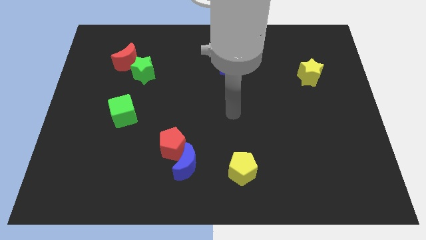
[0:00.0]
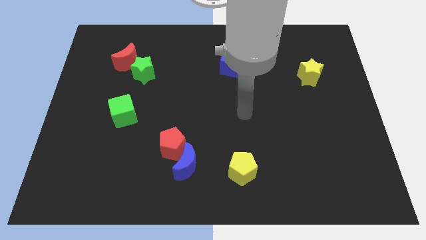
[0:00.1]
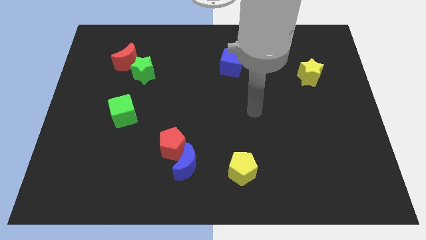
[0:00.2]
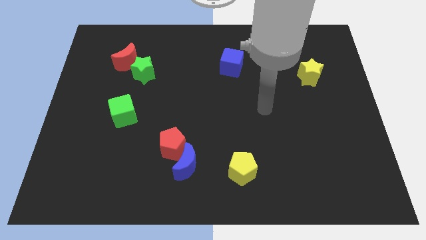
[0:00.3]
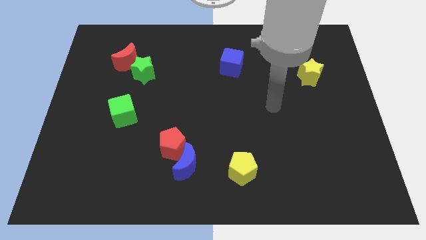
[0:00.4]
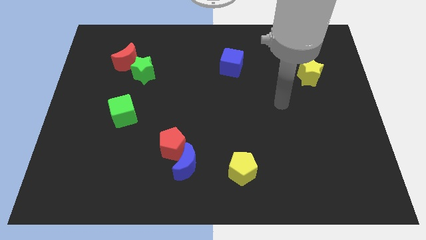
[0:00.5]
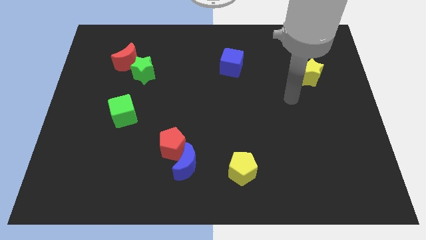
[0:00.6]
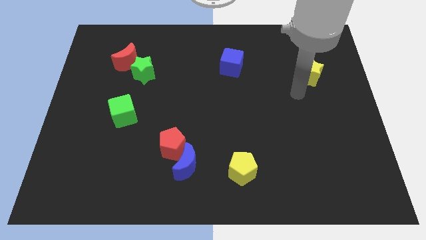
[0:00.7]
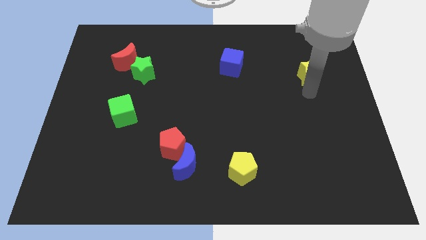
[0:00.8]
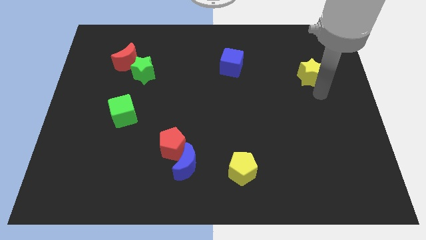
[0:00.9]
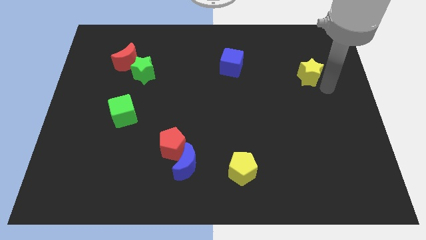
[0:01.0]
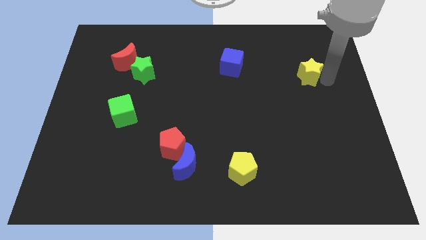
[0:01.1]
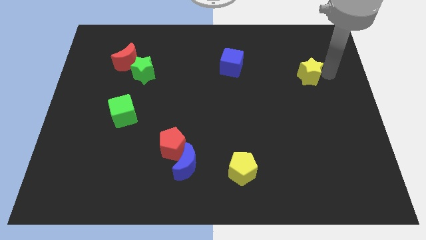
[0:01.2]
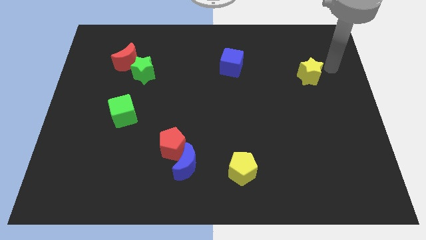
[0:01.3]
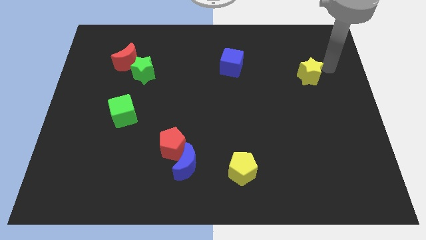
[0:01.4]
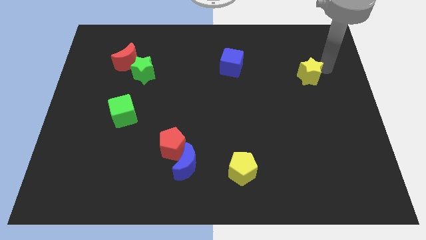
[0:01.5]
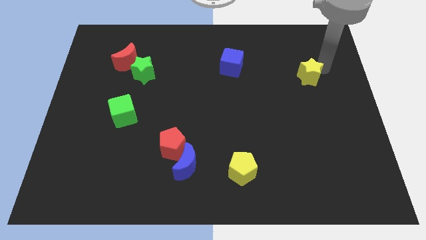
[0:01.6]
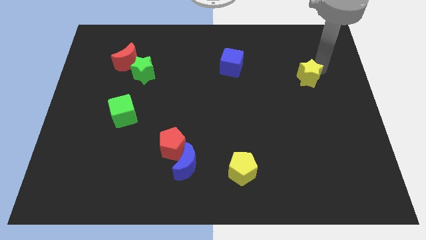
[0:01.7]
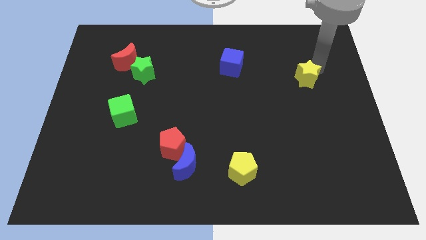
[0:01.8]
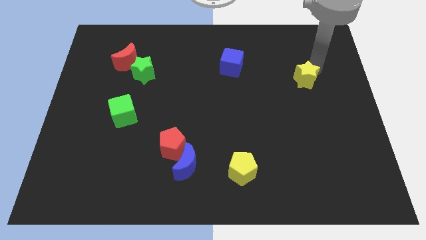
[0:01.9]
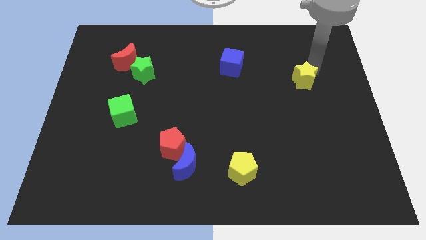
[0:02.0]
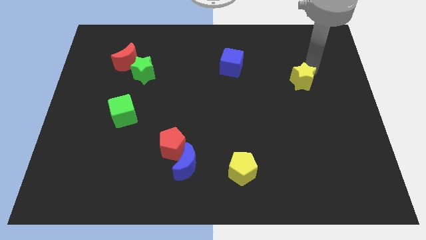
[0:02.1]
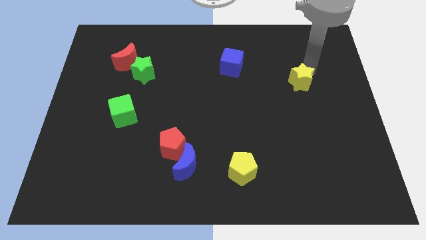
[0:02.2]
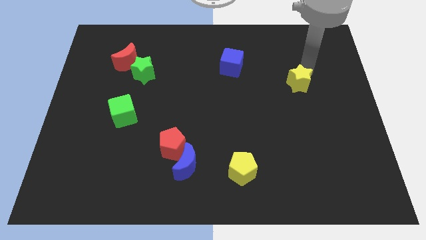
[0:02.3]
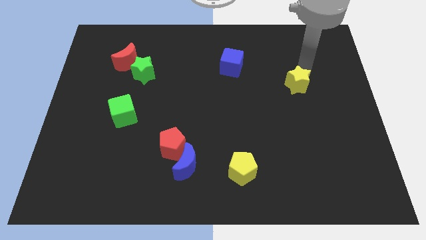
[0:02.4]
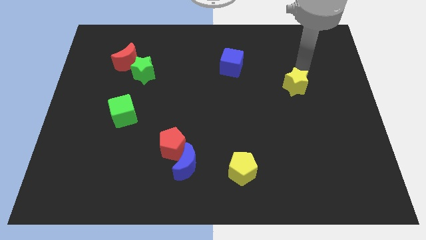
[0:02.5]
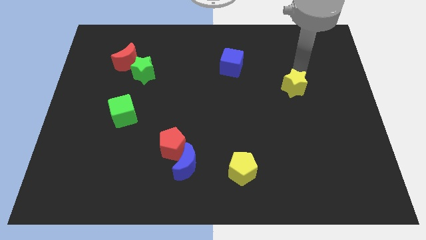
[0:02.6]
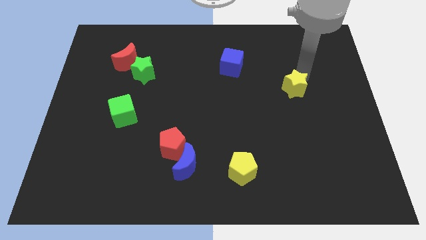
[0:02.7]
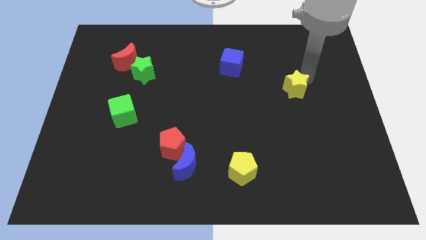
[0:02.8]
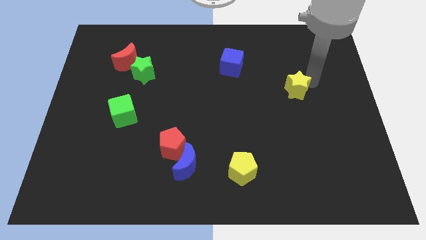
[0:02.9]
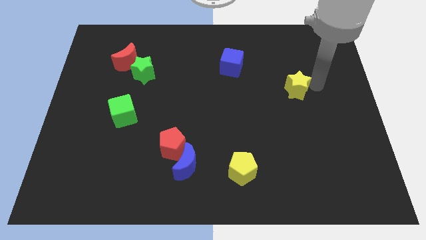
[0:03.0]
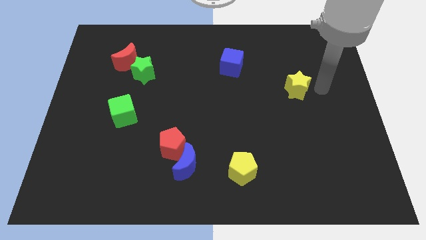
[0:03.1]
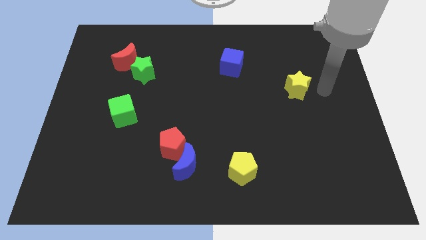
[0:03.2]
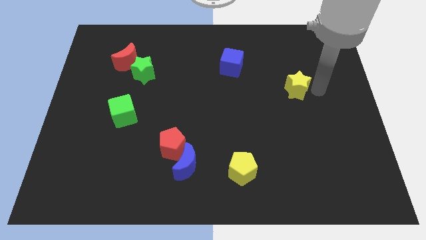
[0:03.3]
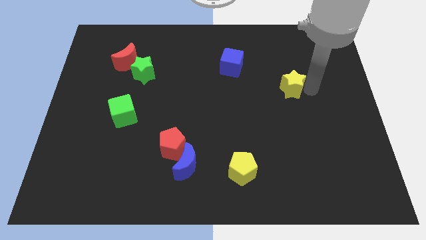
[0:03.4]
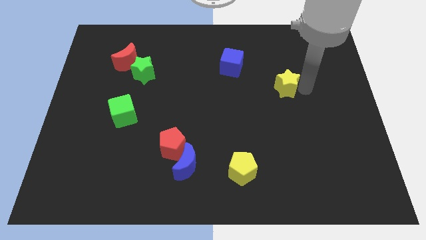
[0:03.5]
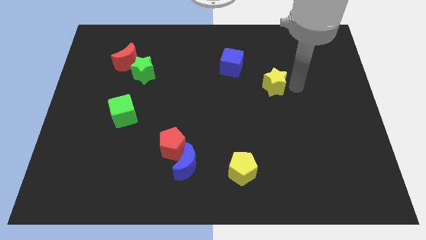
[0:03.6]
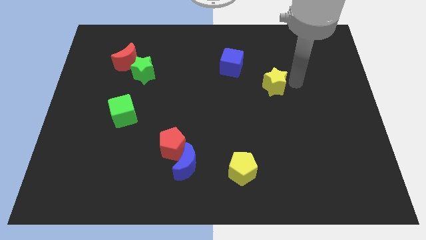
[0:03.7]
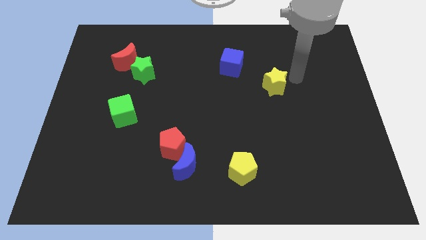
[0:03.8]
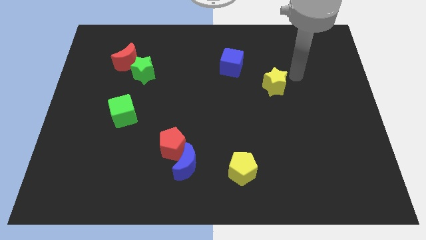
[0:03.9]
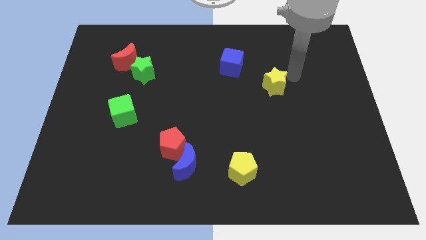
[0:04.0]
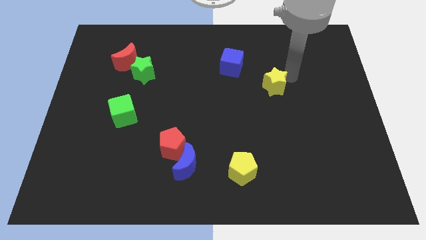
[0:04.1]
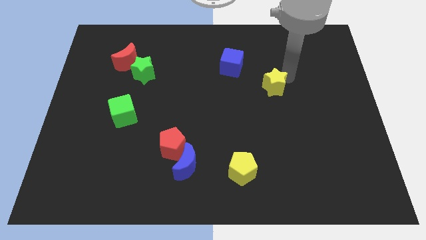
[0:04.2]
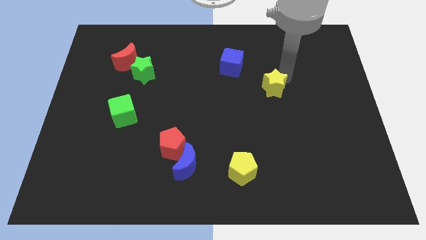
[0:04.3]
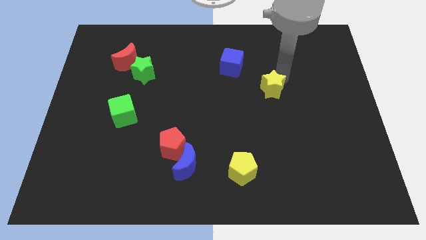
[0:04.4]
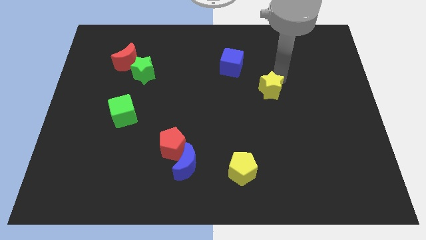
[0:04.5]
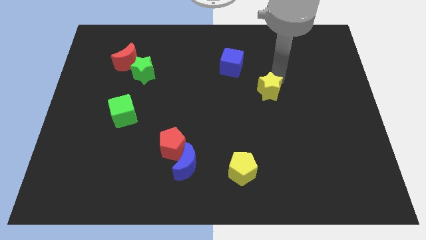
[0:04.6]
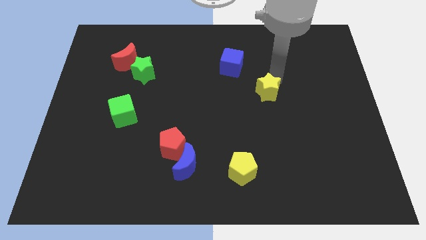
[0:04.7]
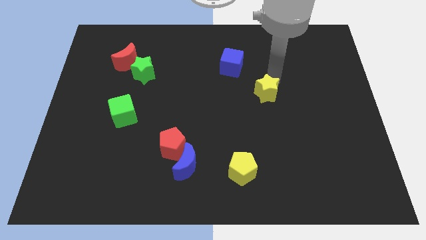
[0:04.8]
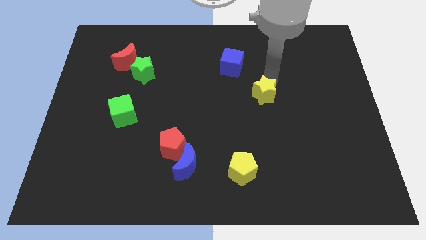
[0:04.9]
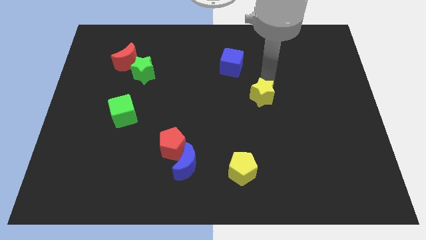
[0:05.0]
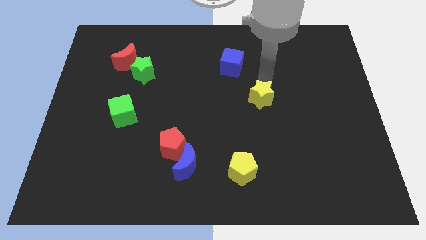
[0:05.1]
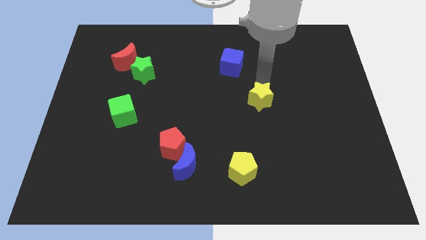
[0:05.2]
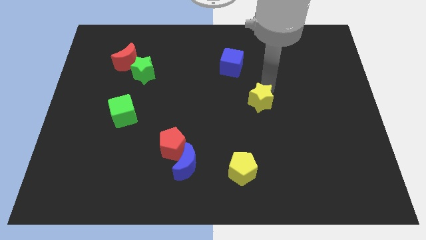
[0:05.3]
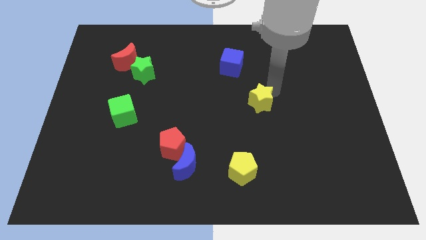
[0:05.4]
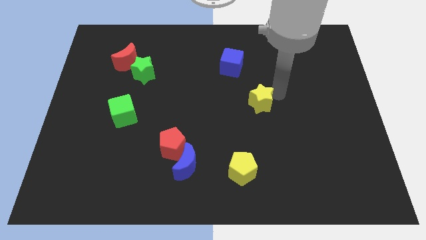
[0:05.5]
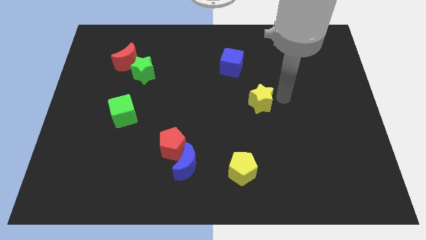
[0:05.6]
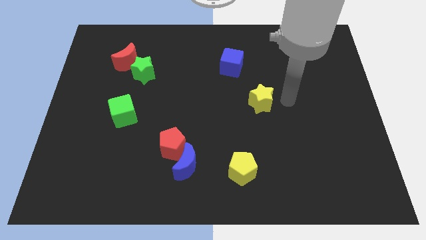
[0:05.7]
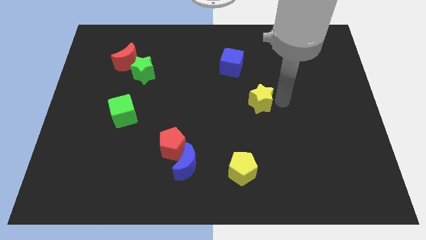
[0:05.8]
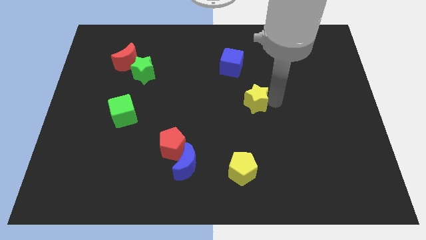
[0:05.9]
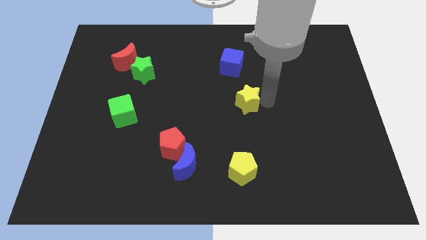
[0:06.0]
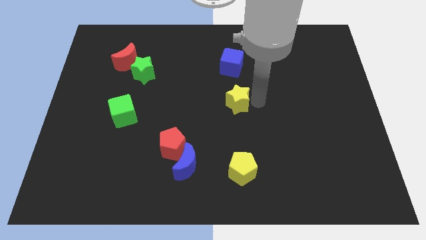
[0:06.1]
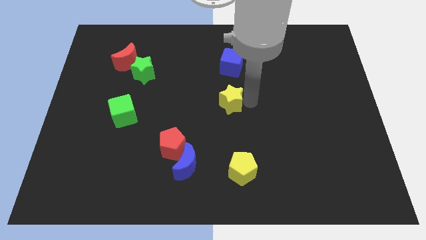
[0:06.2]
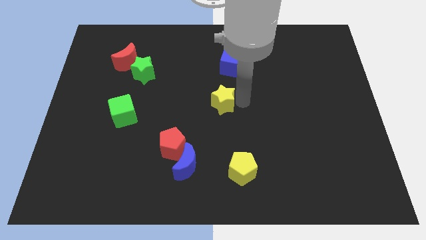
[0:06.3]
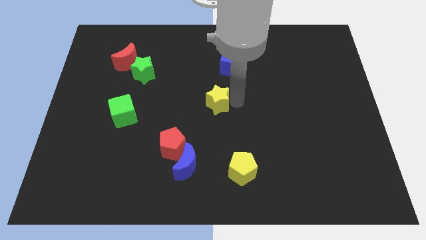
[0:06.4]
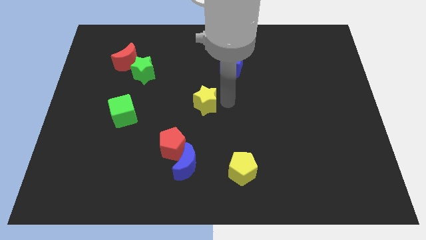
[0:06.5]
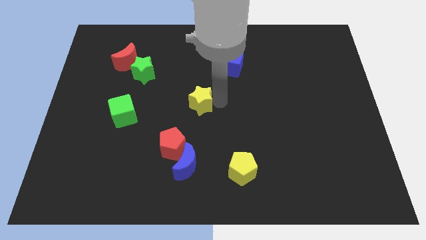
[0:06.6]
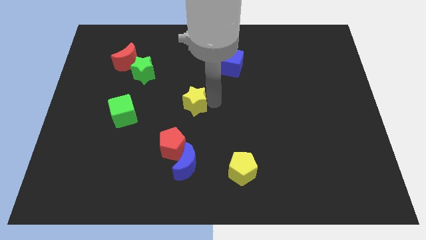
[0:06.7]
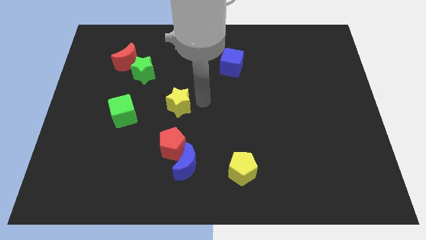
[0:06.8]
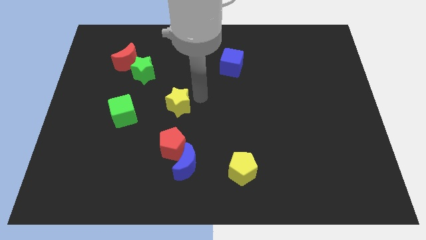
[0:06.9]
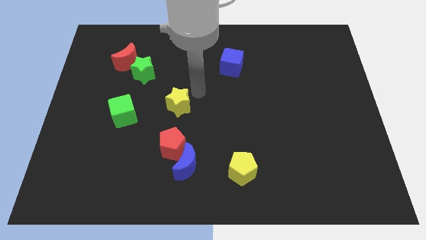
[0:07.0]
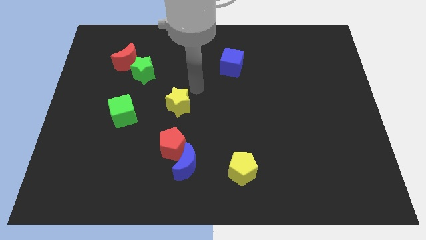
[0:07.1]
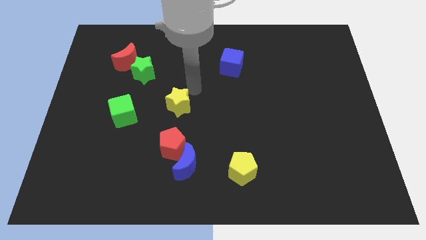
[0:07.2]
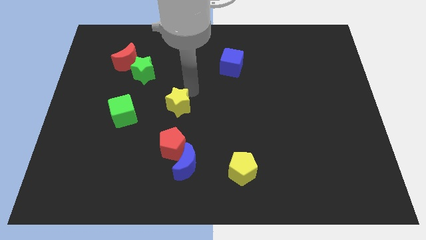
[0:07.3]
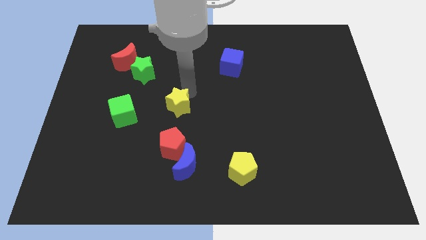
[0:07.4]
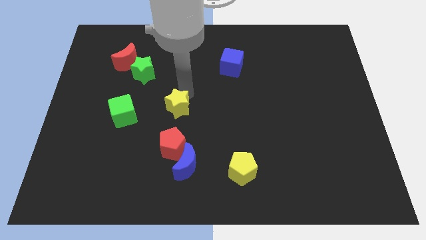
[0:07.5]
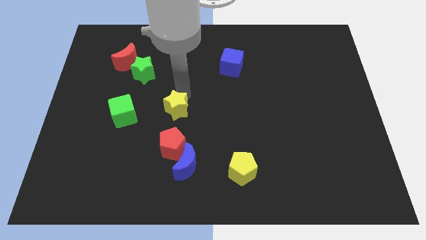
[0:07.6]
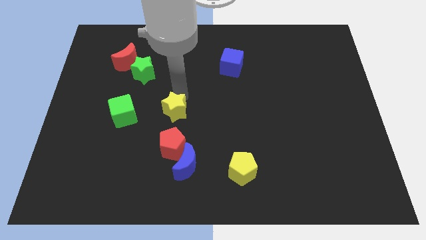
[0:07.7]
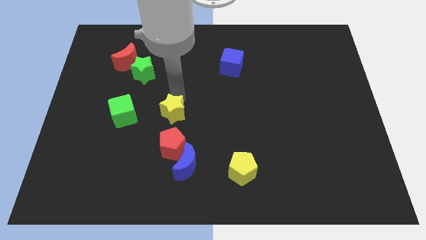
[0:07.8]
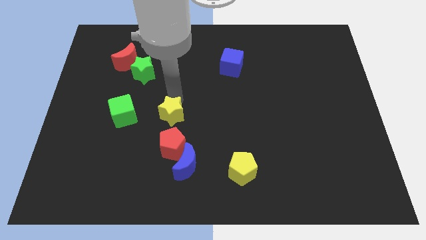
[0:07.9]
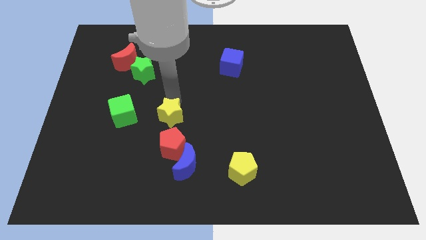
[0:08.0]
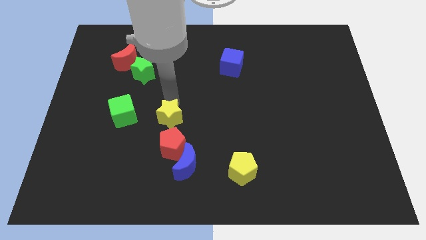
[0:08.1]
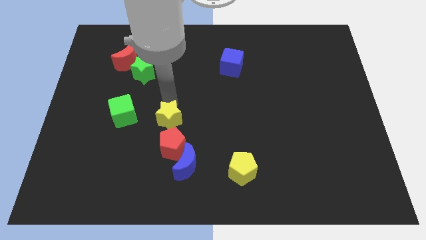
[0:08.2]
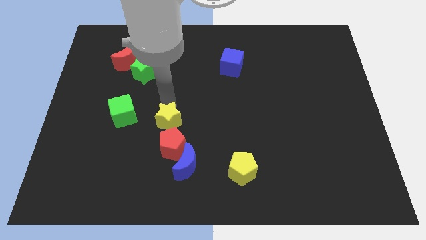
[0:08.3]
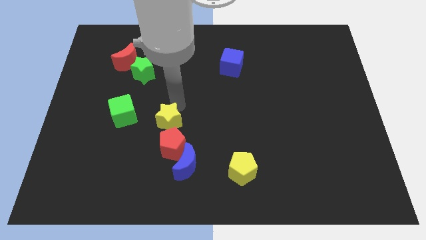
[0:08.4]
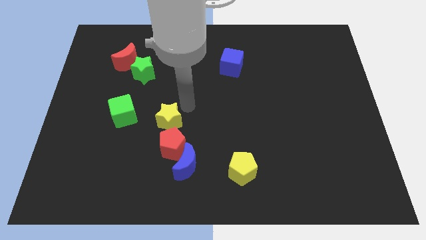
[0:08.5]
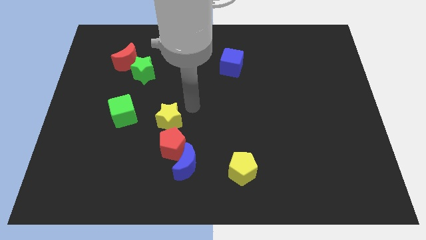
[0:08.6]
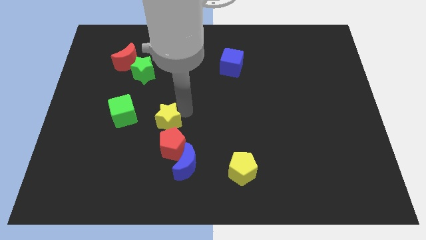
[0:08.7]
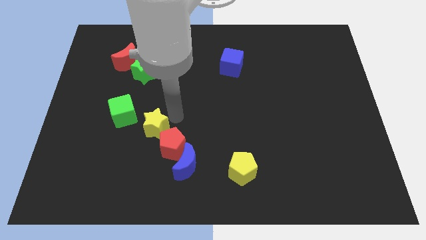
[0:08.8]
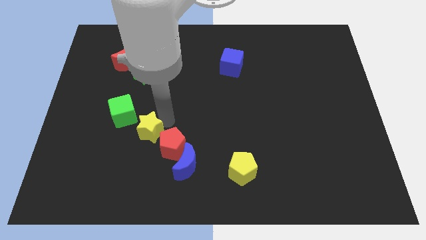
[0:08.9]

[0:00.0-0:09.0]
slide the yellow star left of the red pentagon
